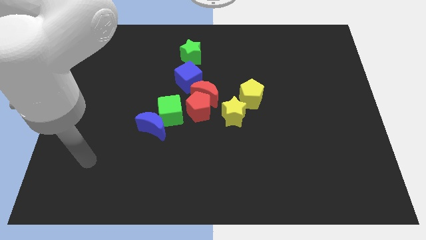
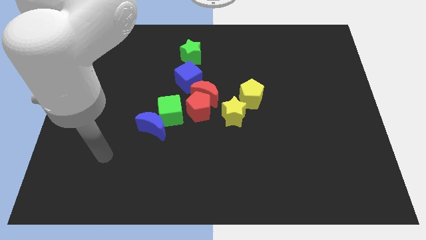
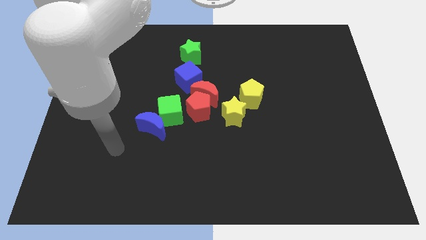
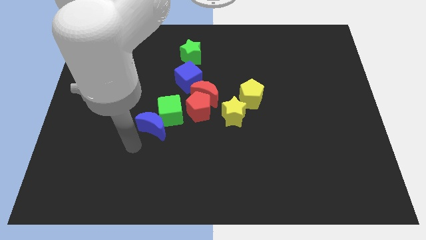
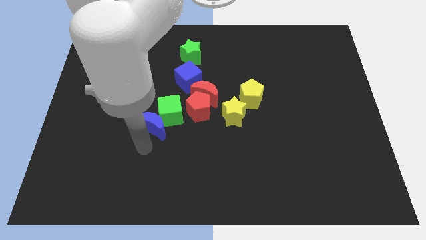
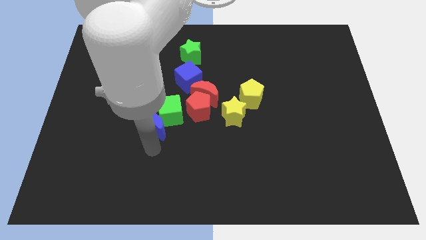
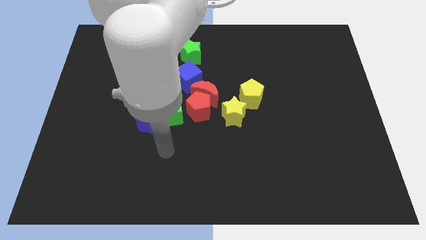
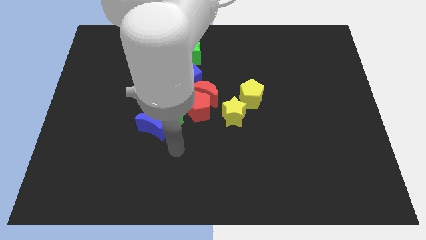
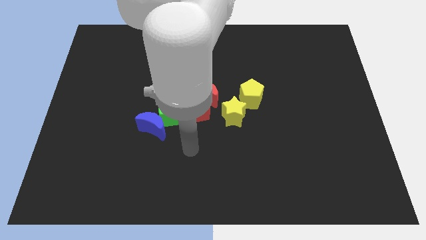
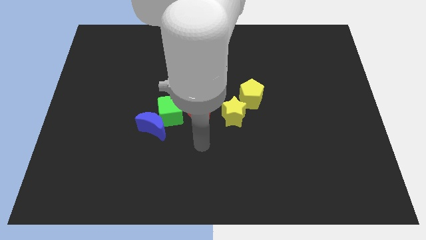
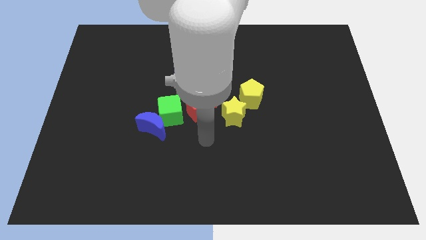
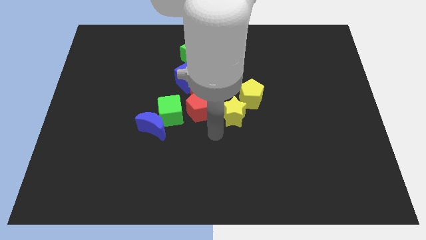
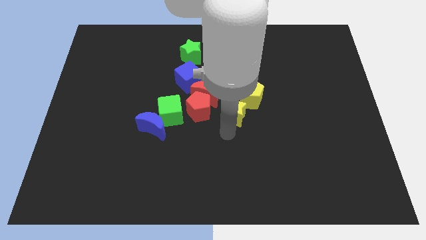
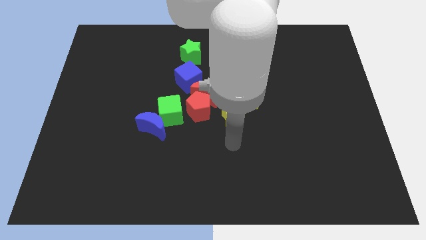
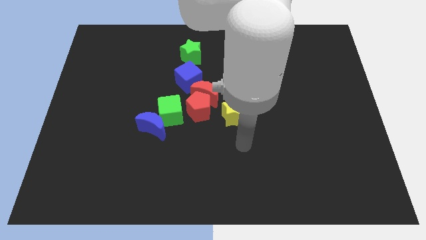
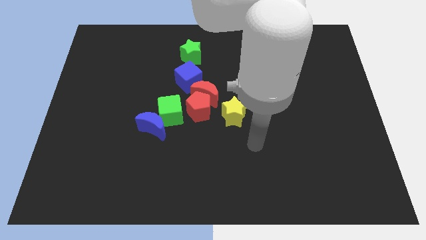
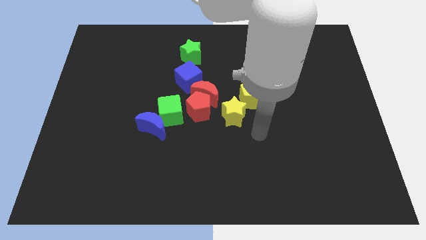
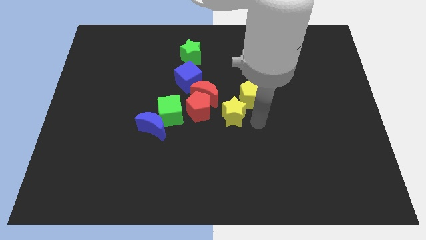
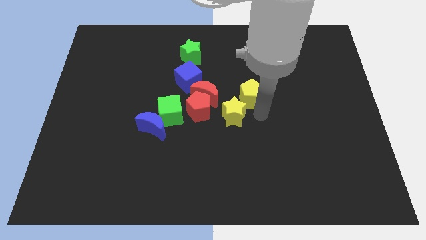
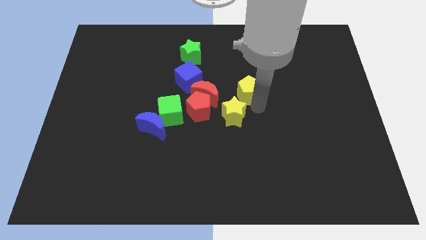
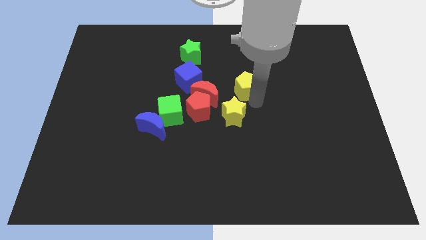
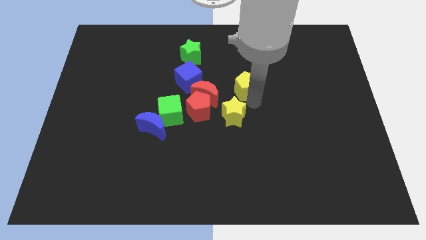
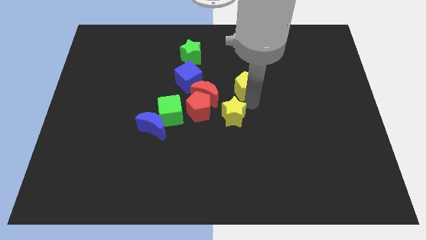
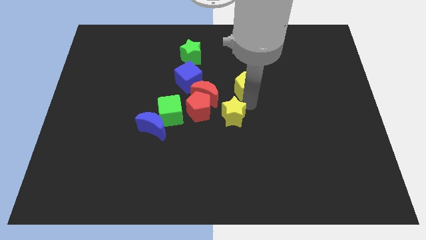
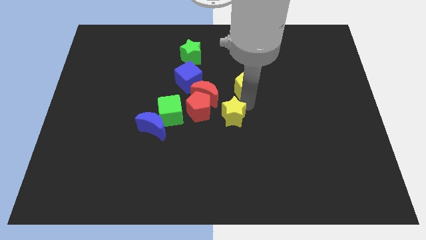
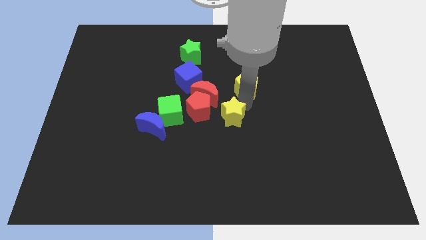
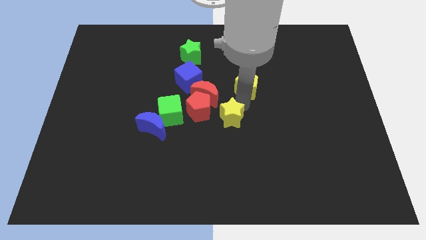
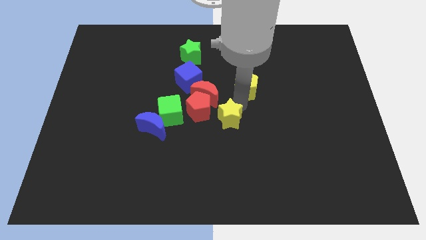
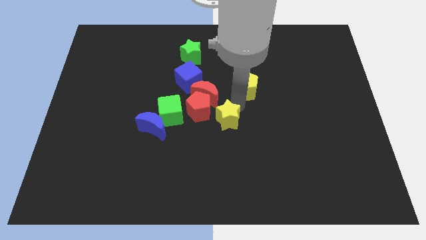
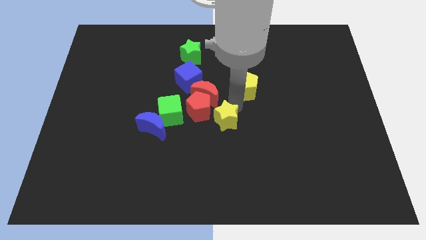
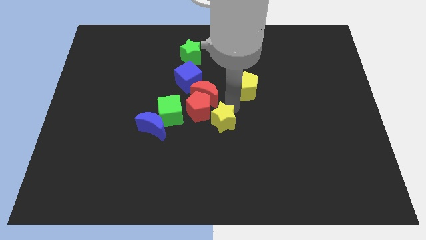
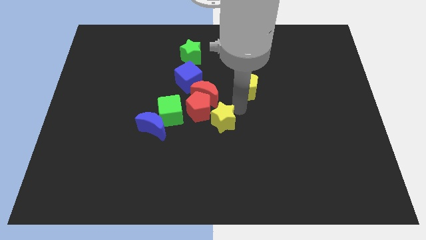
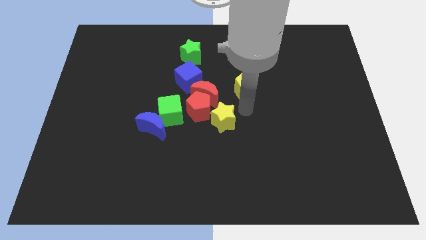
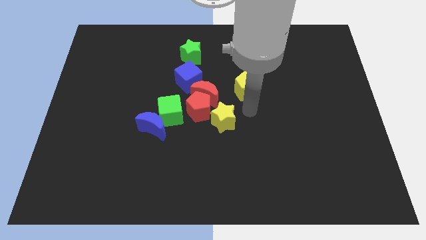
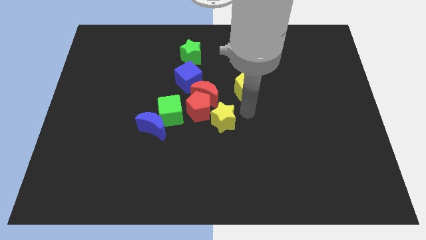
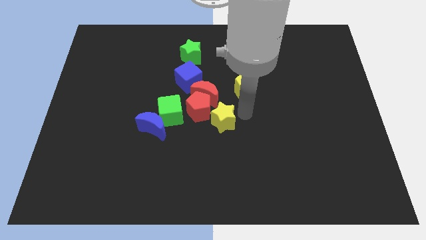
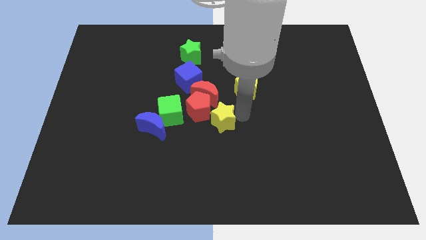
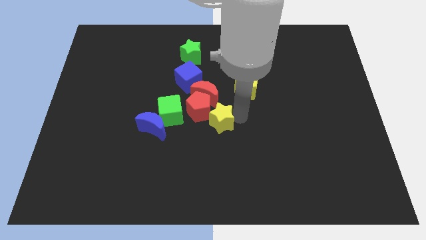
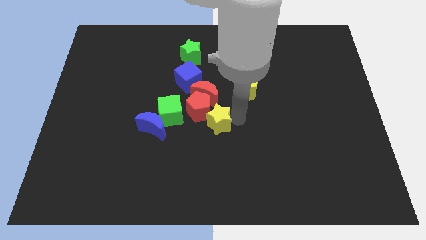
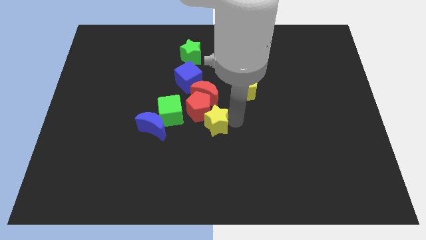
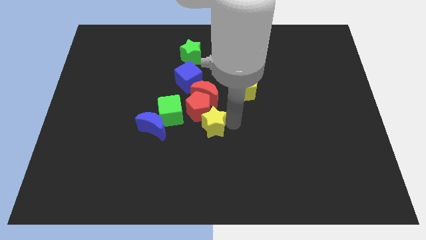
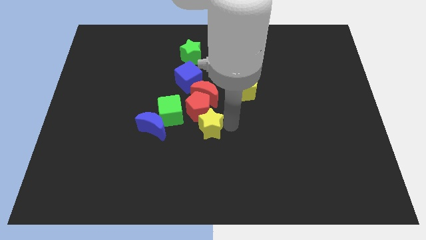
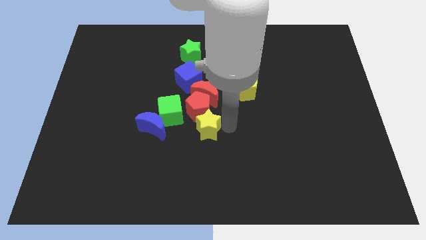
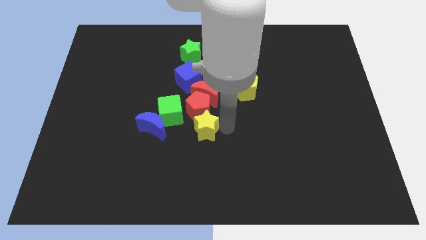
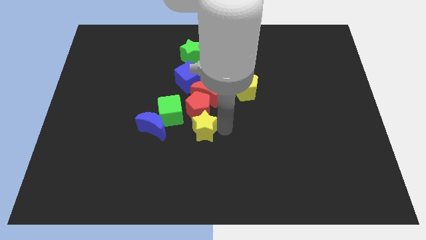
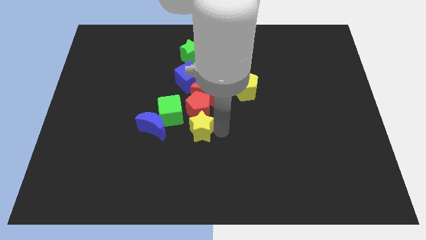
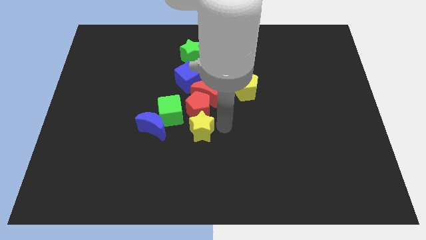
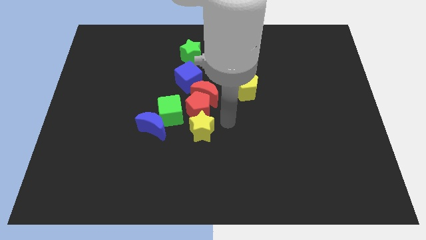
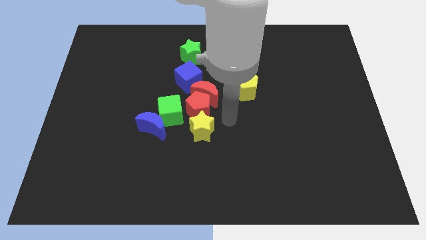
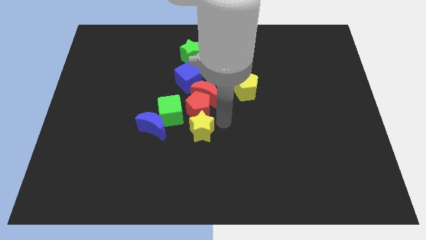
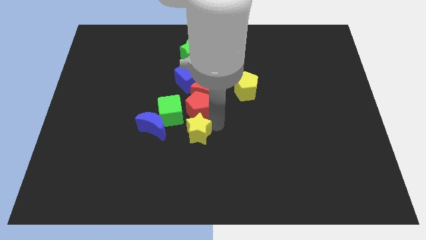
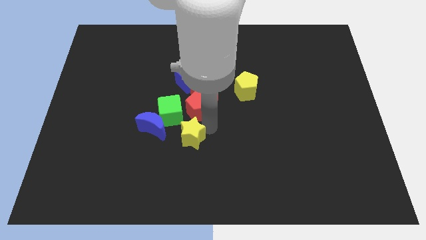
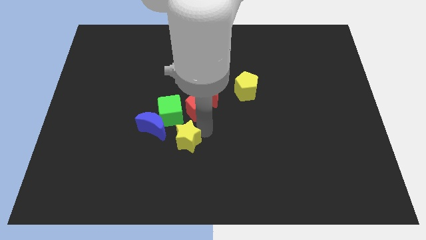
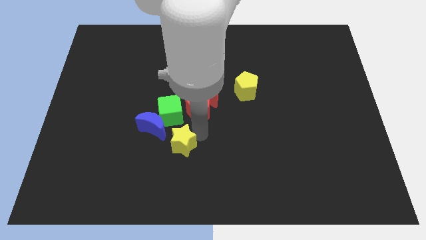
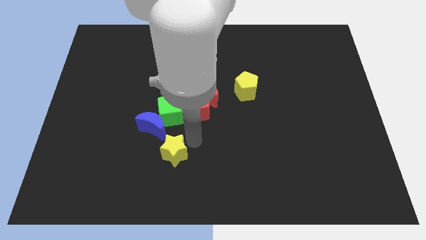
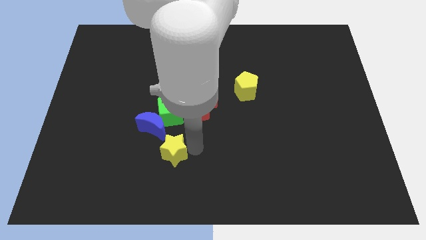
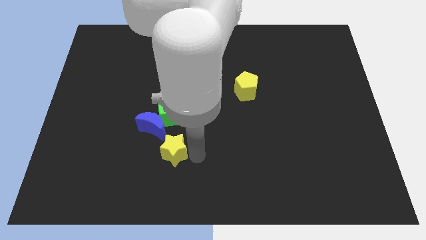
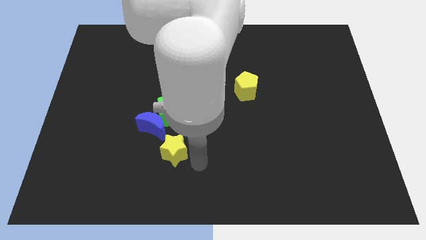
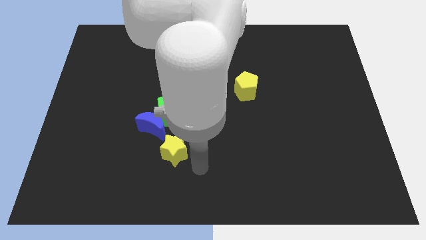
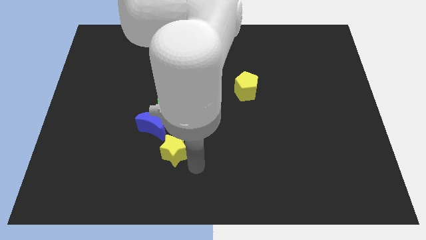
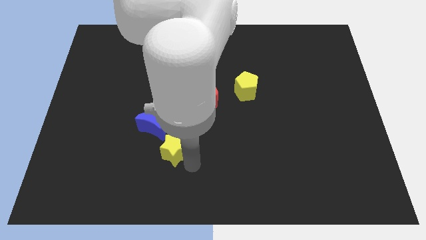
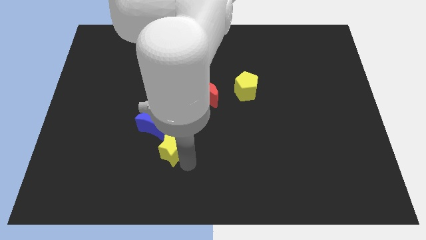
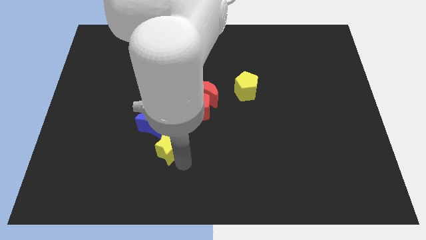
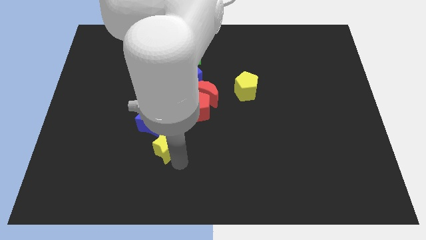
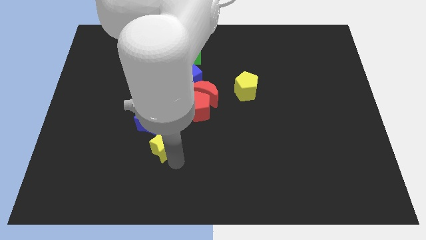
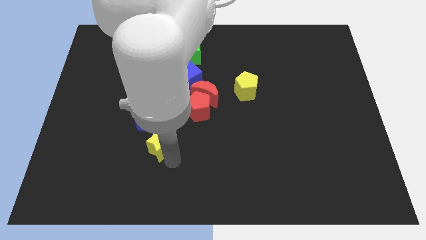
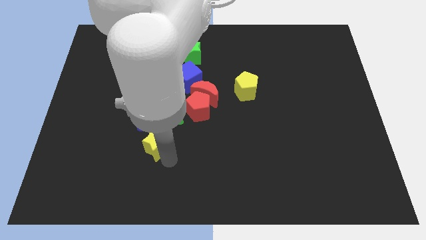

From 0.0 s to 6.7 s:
push the yellow star to the bottom left side of the green cube
